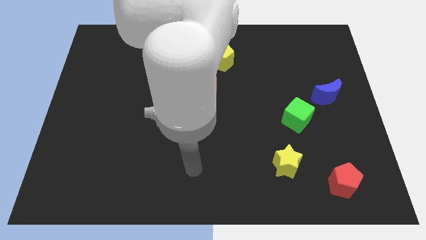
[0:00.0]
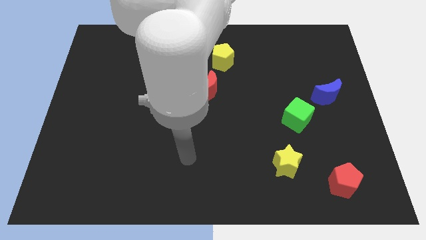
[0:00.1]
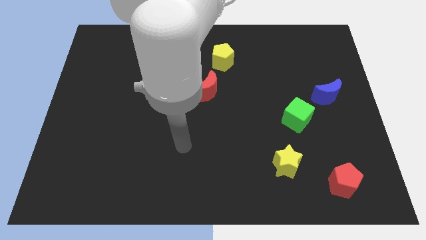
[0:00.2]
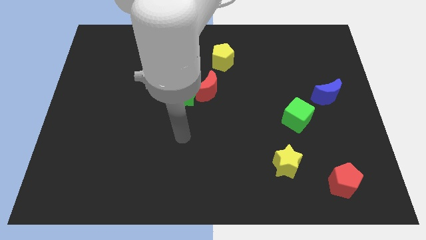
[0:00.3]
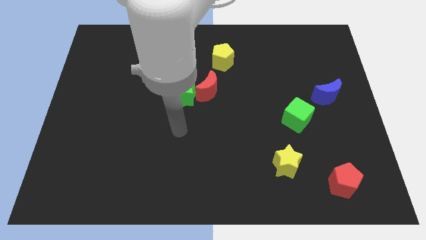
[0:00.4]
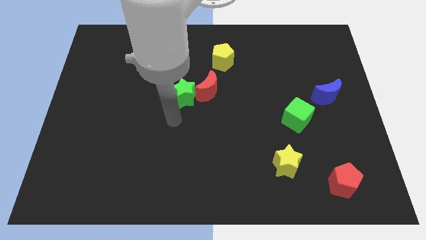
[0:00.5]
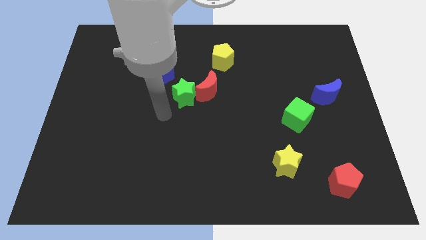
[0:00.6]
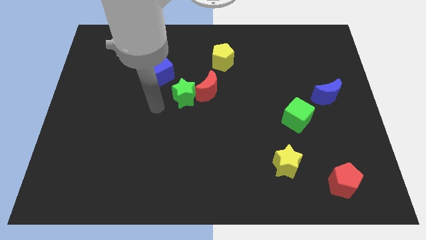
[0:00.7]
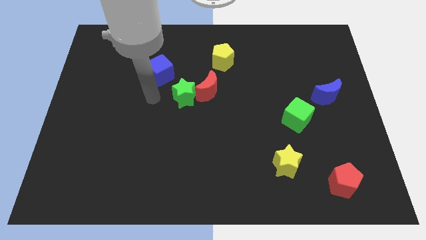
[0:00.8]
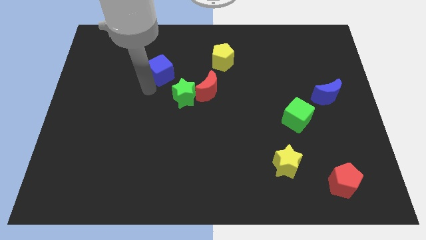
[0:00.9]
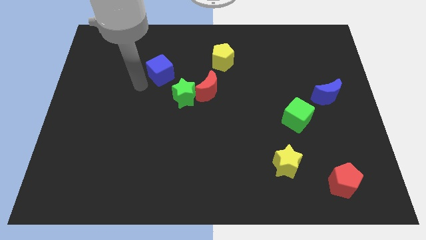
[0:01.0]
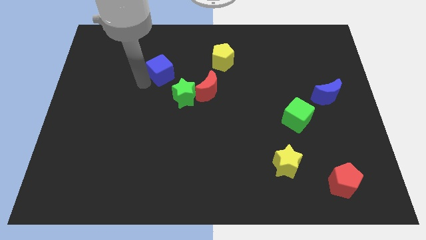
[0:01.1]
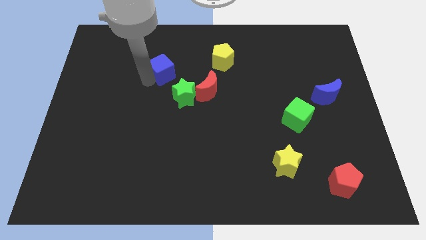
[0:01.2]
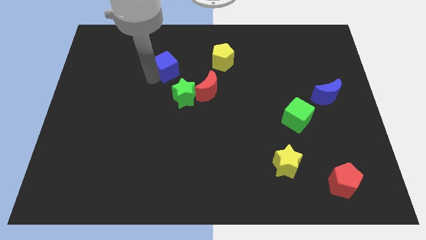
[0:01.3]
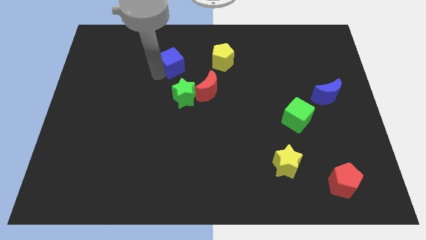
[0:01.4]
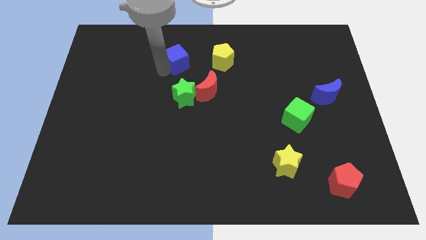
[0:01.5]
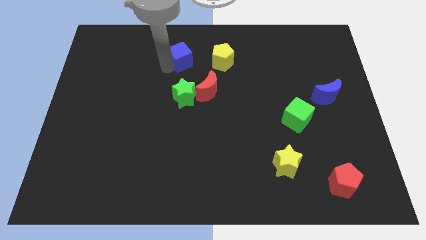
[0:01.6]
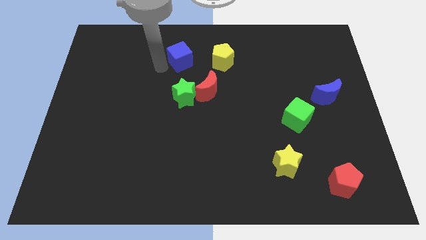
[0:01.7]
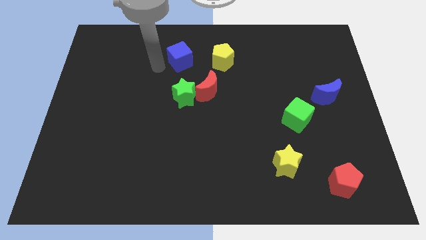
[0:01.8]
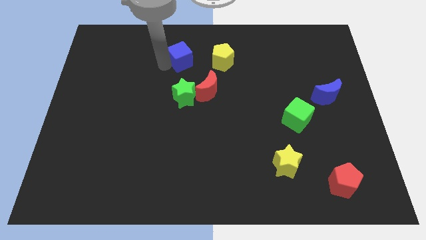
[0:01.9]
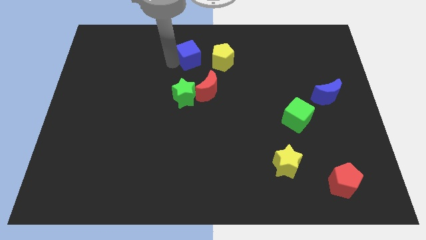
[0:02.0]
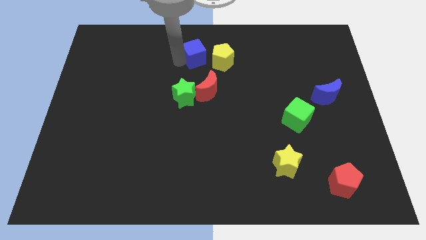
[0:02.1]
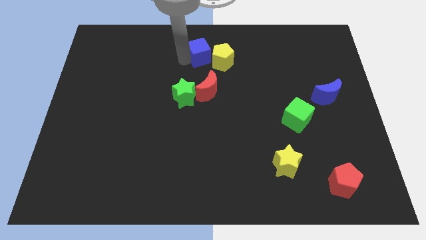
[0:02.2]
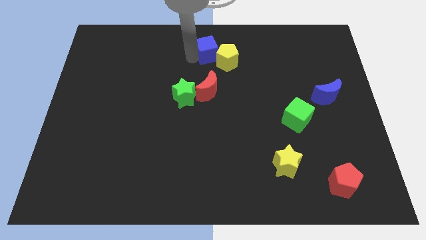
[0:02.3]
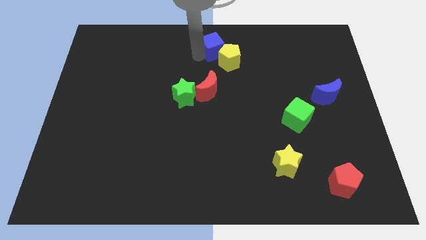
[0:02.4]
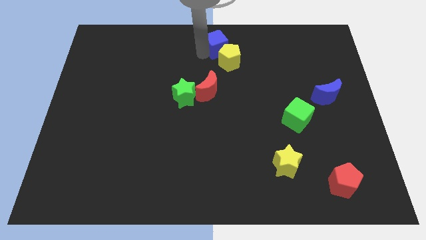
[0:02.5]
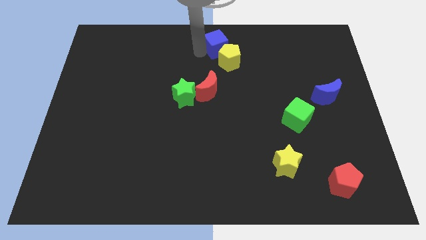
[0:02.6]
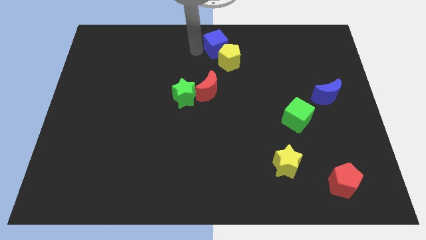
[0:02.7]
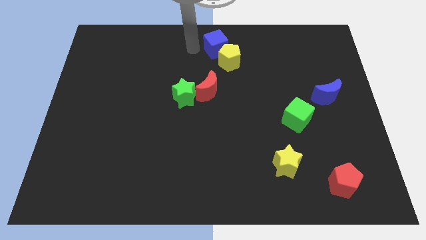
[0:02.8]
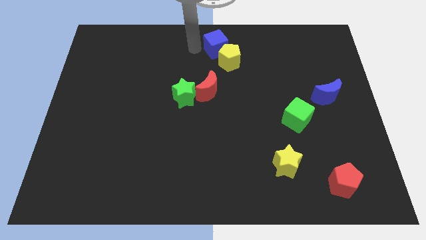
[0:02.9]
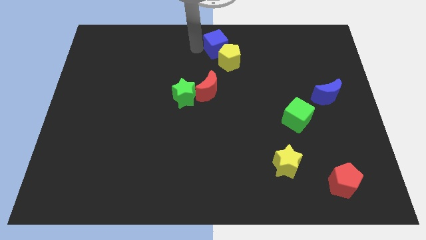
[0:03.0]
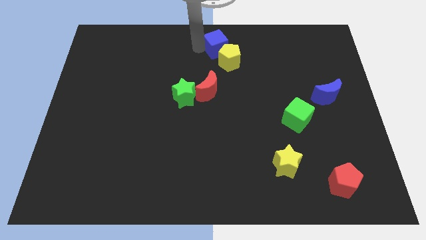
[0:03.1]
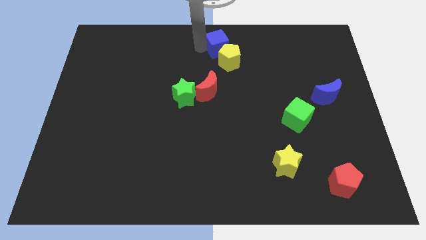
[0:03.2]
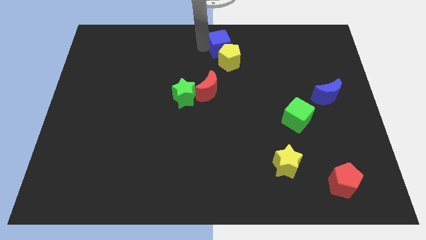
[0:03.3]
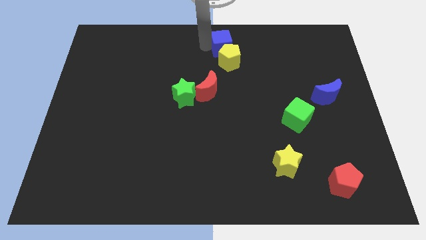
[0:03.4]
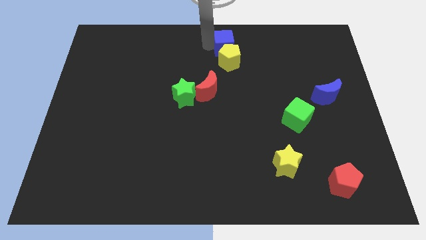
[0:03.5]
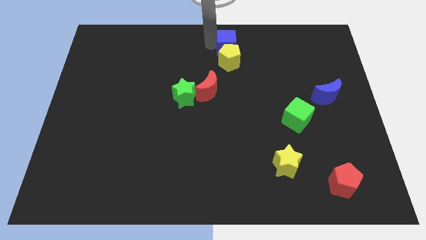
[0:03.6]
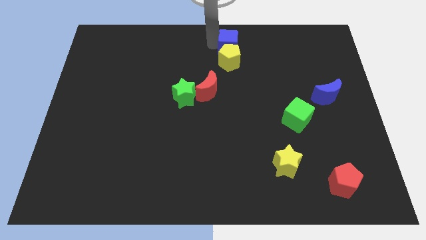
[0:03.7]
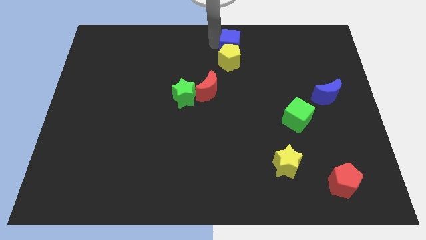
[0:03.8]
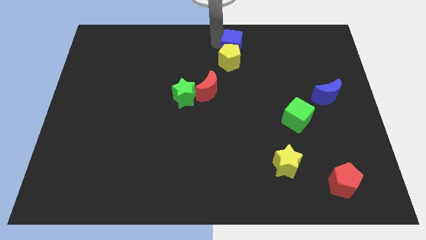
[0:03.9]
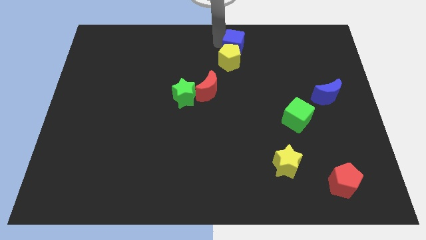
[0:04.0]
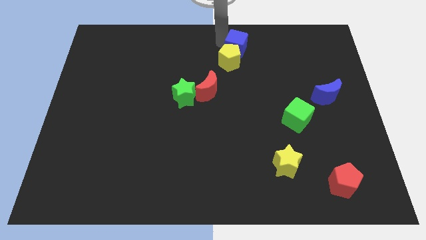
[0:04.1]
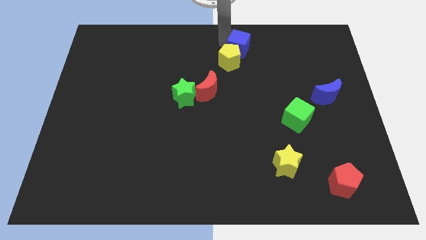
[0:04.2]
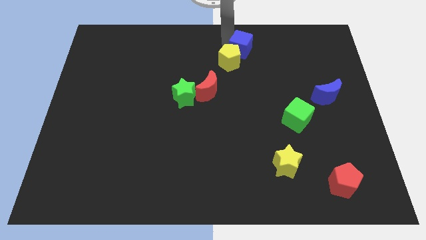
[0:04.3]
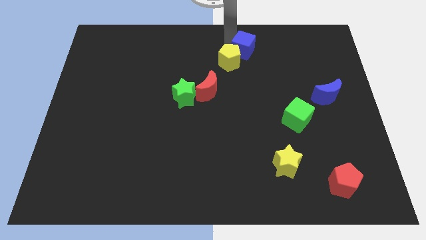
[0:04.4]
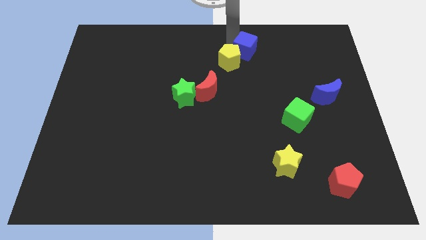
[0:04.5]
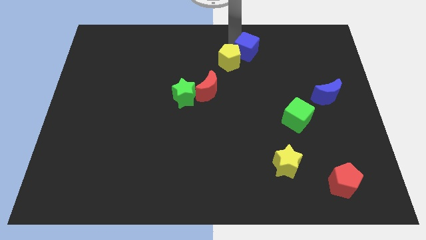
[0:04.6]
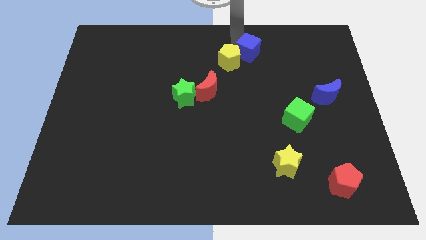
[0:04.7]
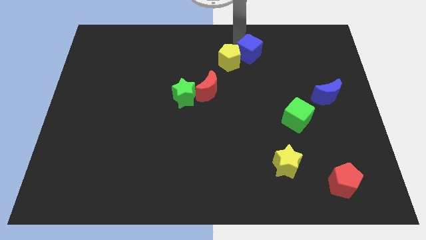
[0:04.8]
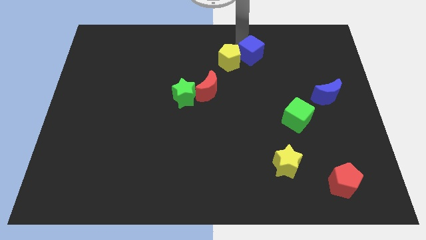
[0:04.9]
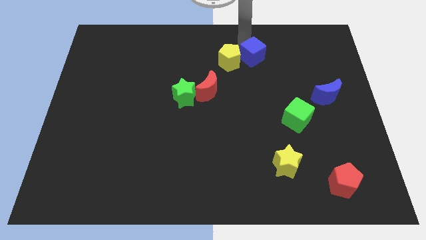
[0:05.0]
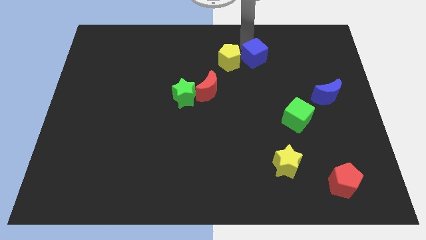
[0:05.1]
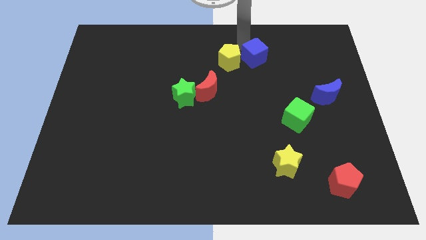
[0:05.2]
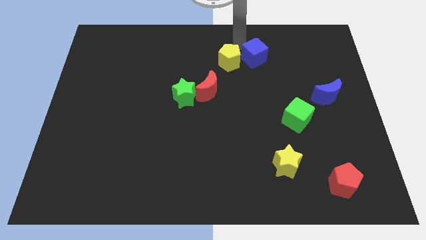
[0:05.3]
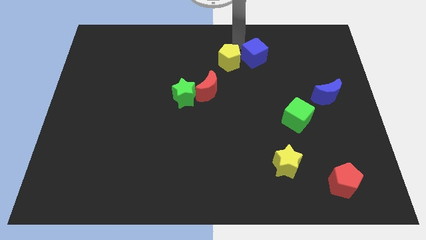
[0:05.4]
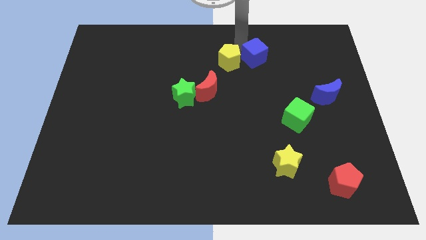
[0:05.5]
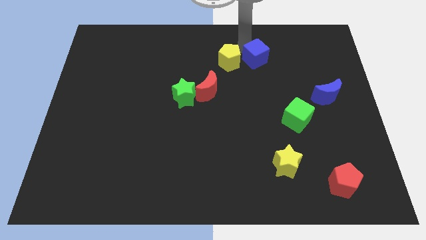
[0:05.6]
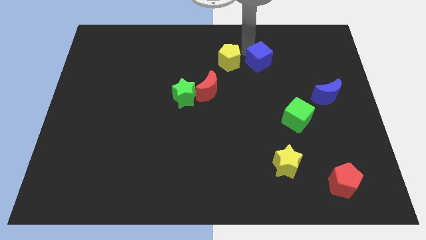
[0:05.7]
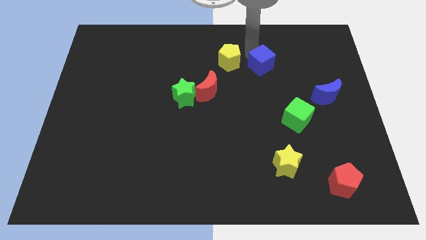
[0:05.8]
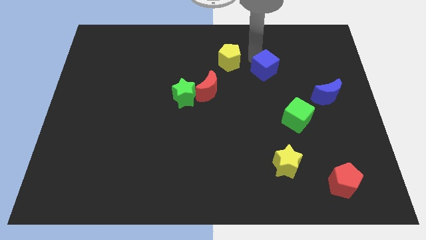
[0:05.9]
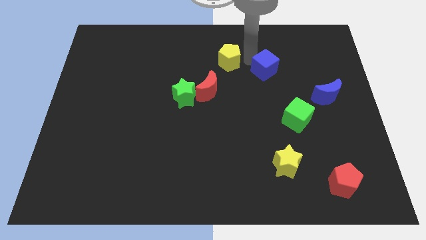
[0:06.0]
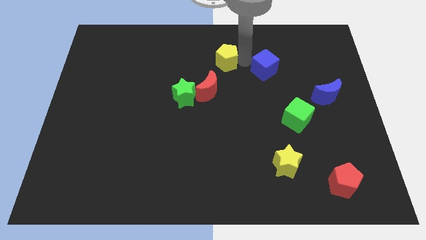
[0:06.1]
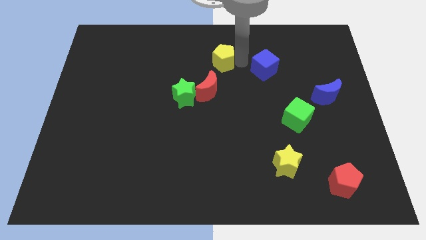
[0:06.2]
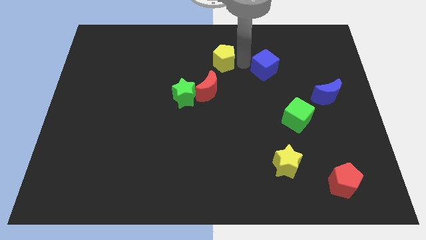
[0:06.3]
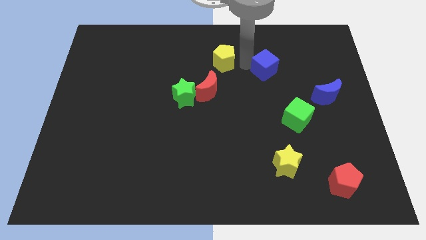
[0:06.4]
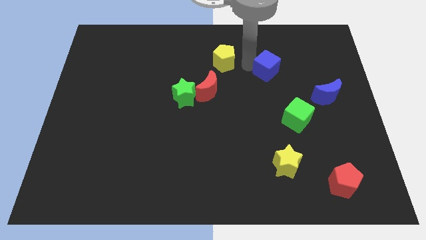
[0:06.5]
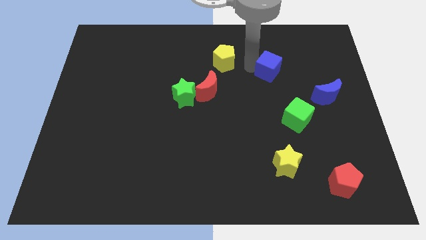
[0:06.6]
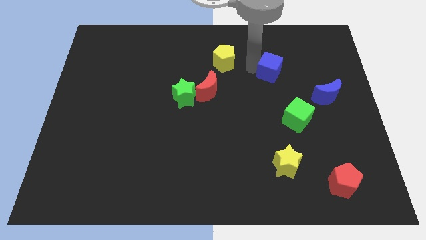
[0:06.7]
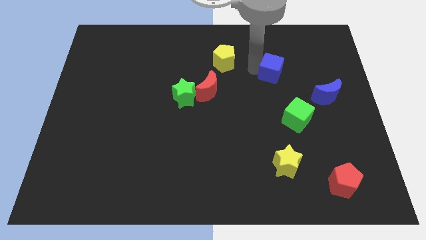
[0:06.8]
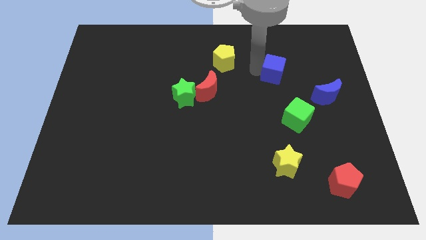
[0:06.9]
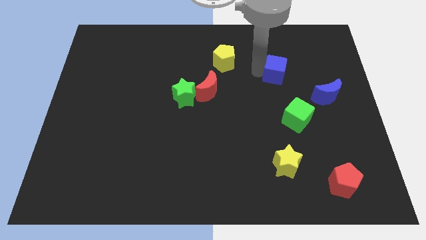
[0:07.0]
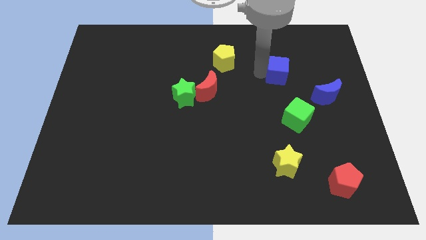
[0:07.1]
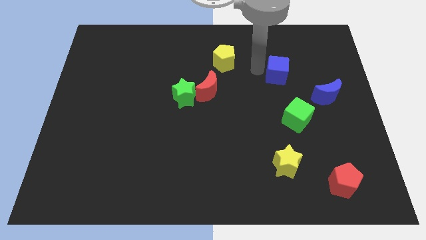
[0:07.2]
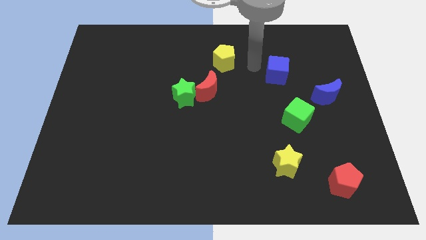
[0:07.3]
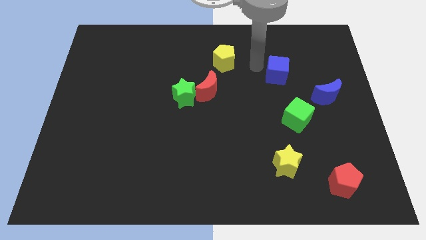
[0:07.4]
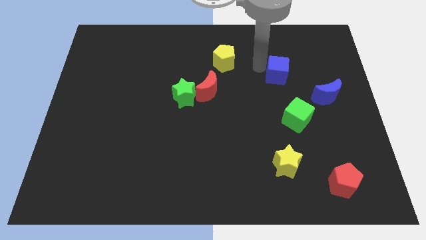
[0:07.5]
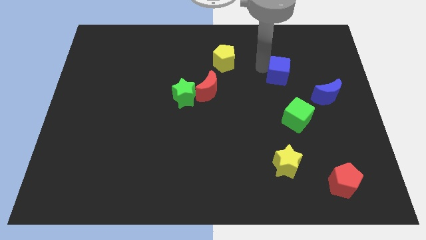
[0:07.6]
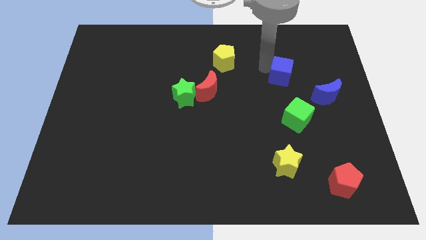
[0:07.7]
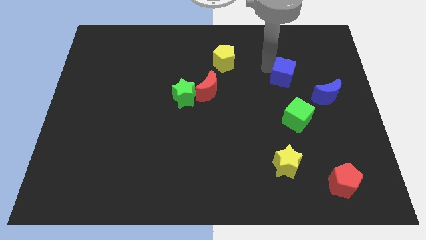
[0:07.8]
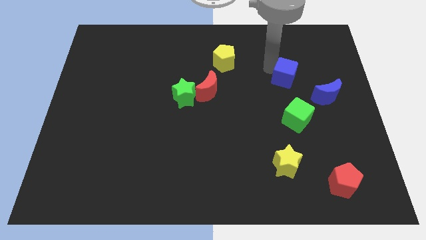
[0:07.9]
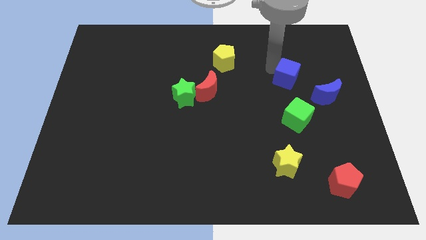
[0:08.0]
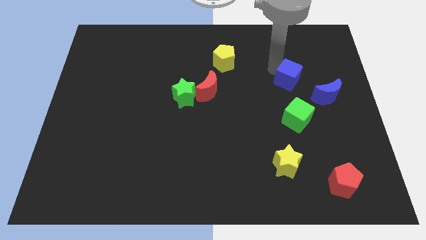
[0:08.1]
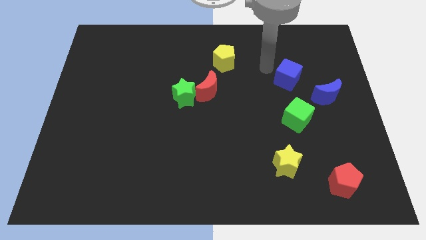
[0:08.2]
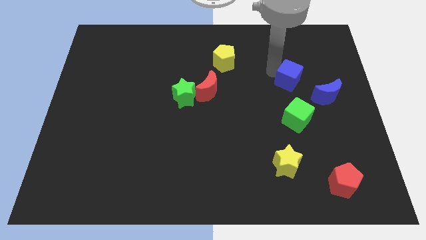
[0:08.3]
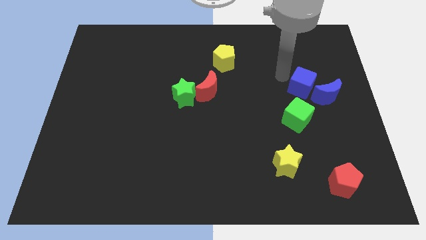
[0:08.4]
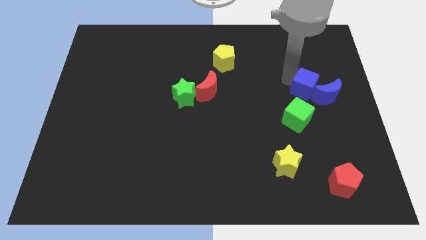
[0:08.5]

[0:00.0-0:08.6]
put the blue cube close to the blue moon
